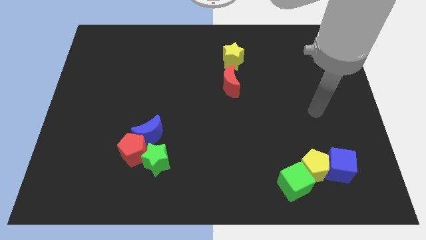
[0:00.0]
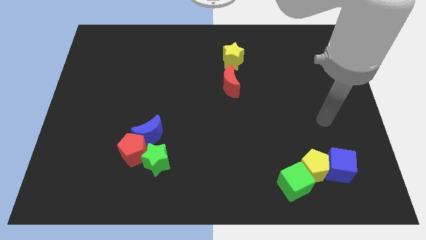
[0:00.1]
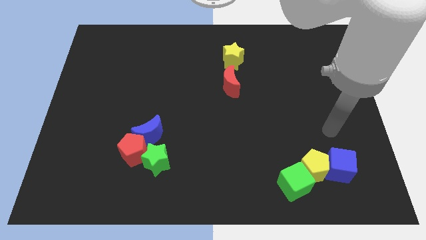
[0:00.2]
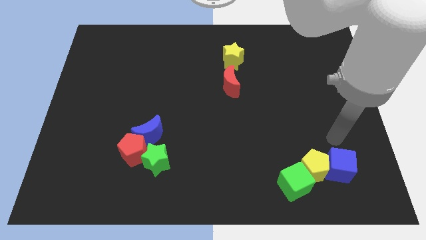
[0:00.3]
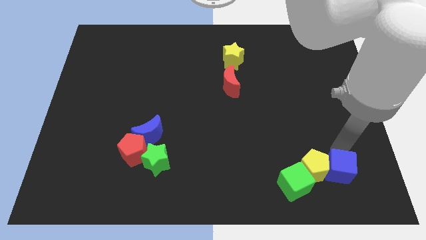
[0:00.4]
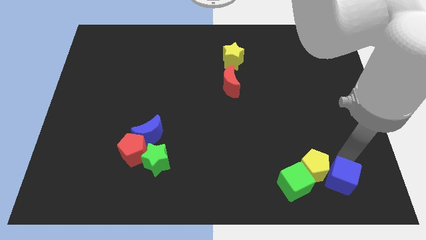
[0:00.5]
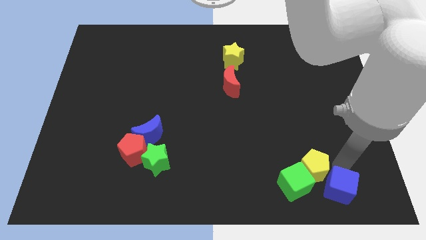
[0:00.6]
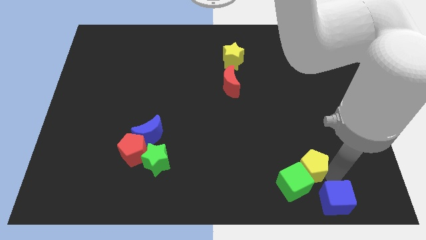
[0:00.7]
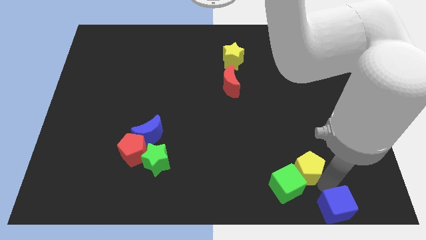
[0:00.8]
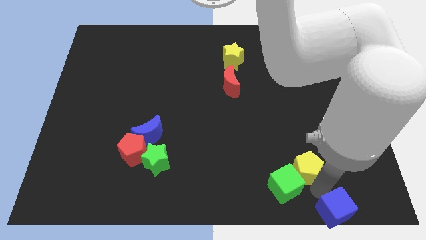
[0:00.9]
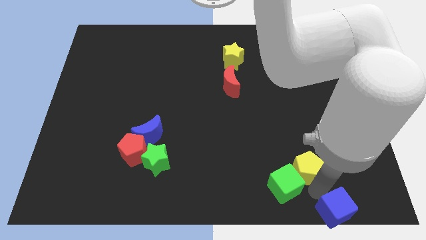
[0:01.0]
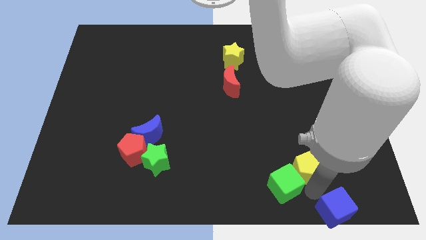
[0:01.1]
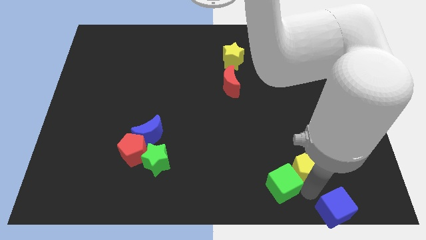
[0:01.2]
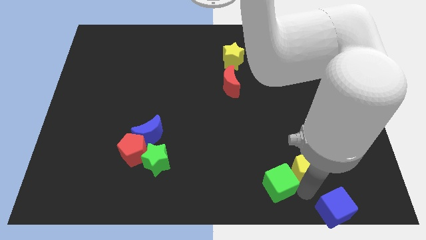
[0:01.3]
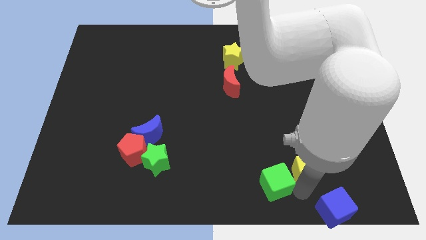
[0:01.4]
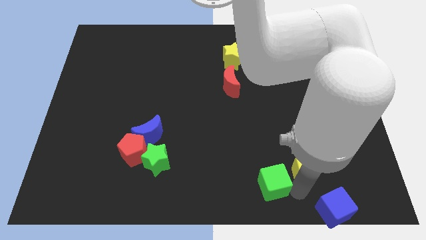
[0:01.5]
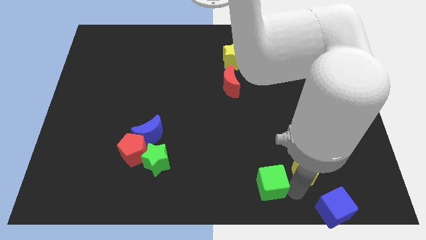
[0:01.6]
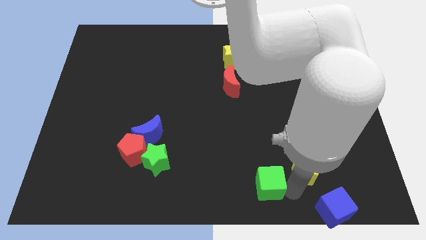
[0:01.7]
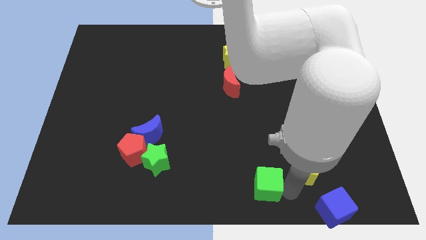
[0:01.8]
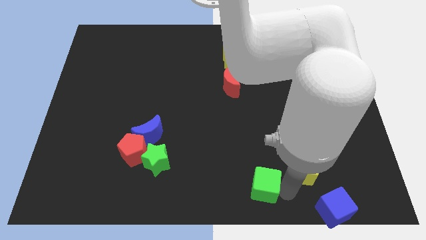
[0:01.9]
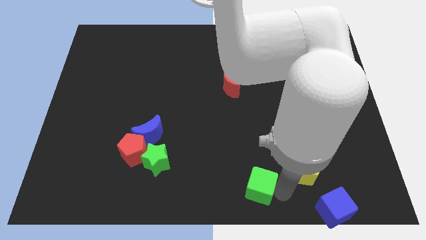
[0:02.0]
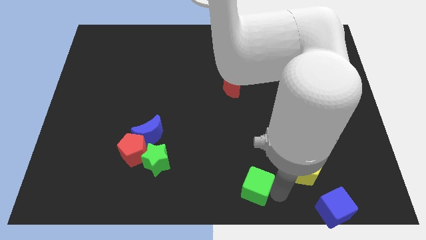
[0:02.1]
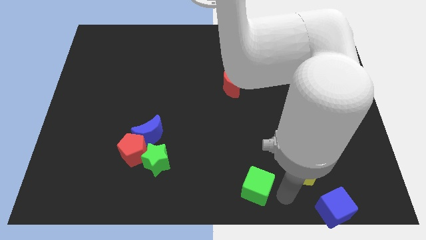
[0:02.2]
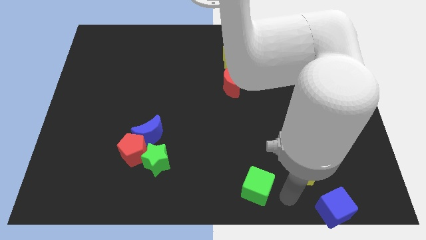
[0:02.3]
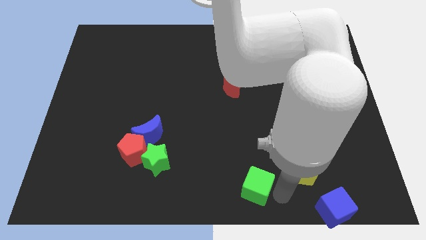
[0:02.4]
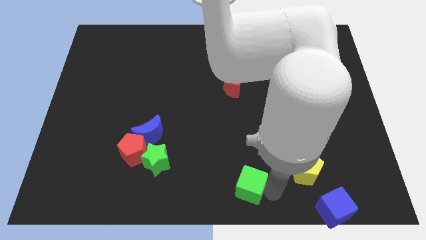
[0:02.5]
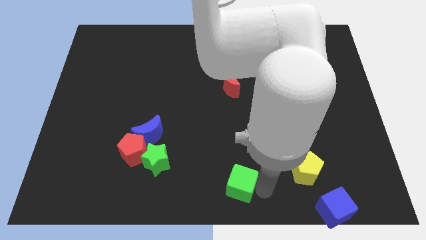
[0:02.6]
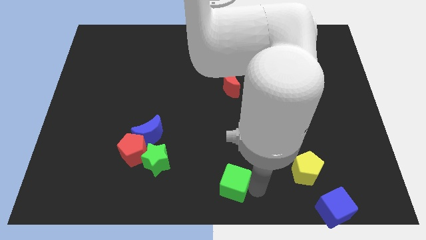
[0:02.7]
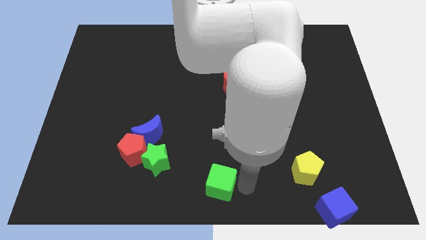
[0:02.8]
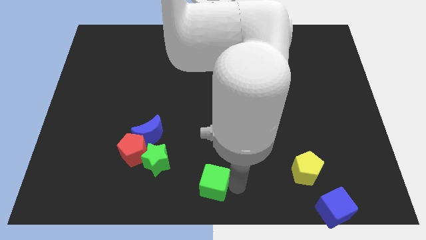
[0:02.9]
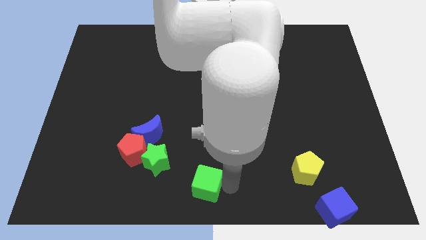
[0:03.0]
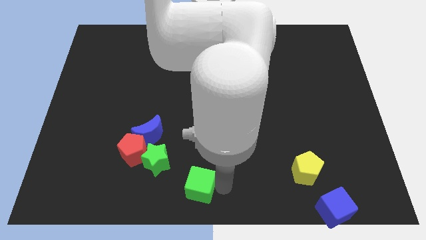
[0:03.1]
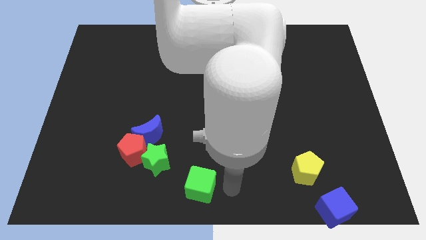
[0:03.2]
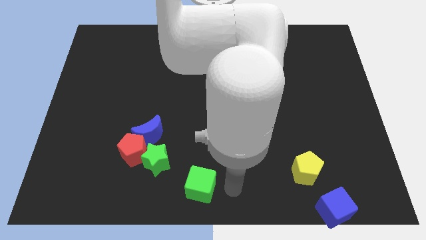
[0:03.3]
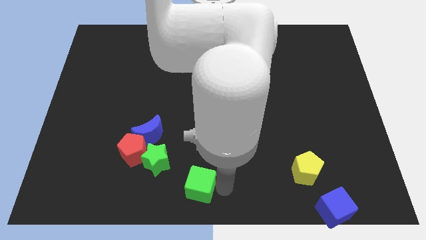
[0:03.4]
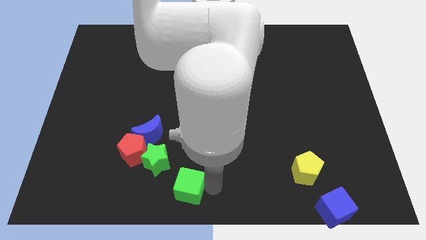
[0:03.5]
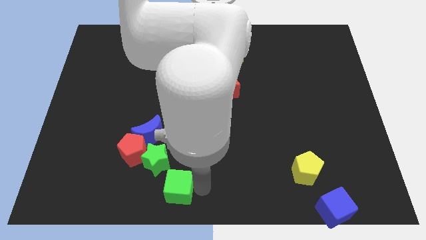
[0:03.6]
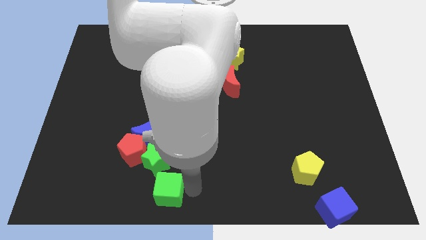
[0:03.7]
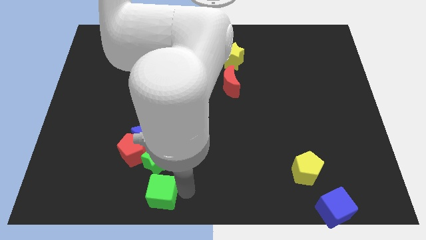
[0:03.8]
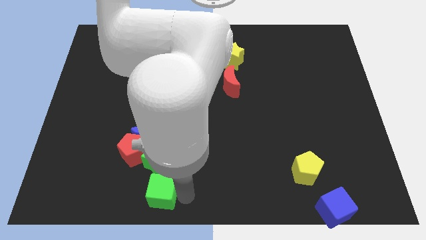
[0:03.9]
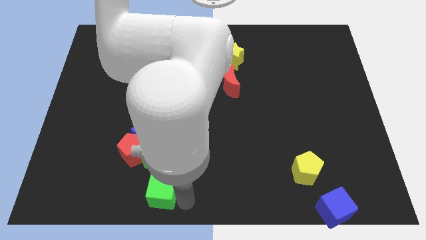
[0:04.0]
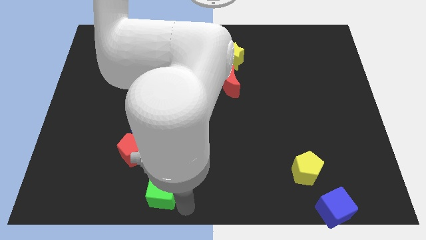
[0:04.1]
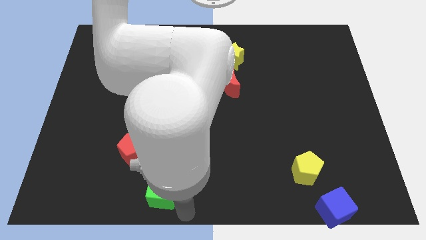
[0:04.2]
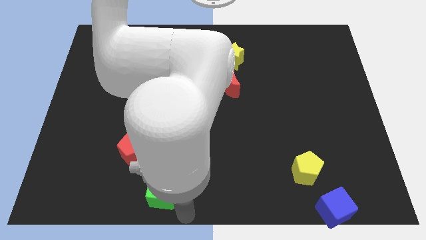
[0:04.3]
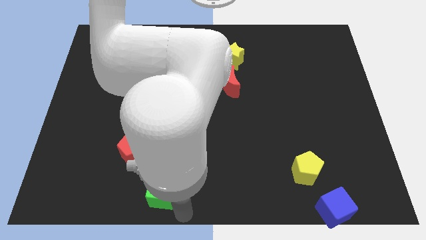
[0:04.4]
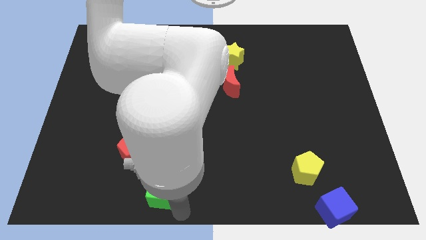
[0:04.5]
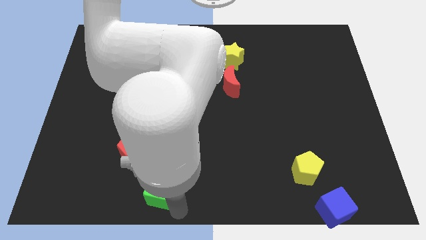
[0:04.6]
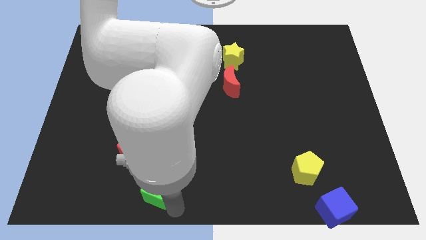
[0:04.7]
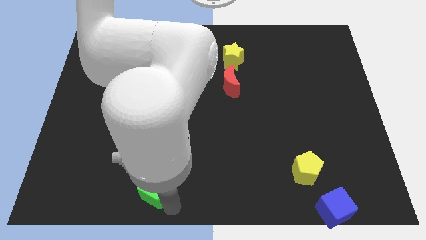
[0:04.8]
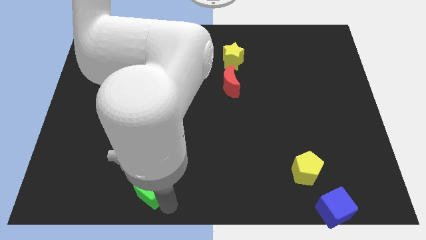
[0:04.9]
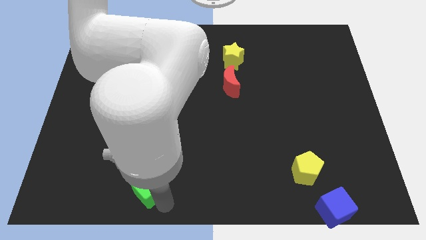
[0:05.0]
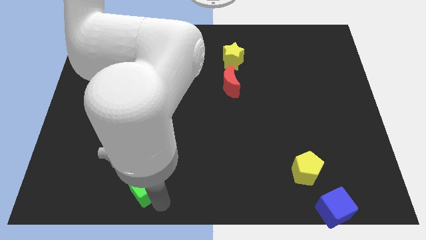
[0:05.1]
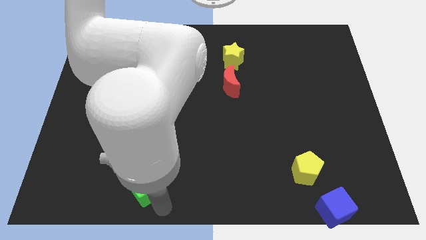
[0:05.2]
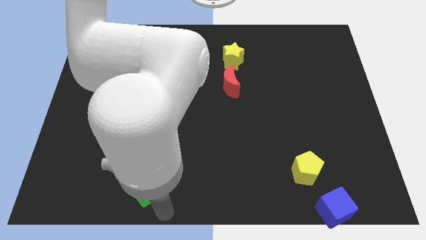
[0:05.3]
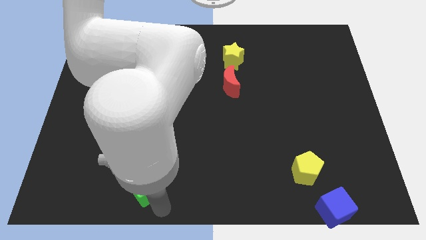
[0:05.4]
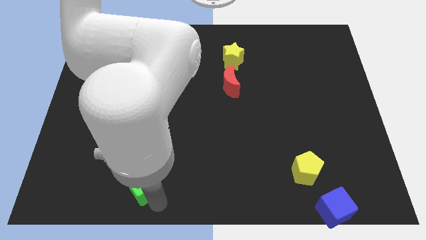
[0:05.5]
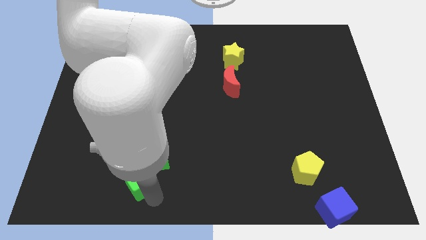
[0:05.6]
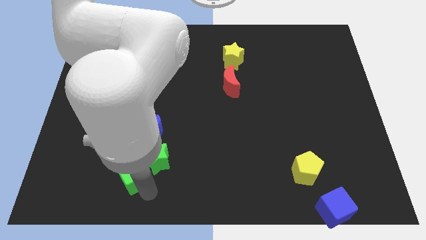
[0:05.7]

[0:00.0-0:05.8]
move the green cube close to the red pentagon

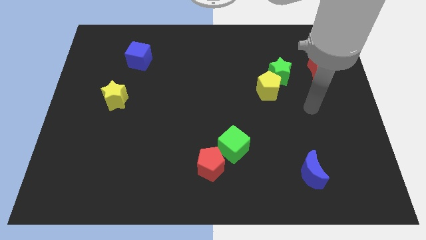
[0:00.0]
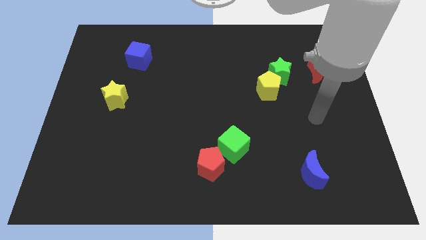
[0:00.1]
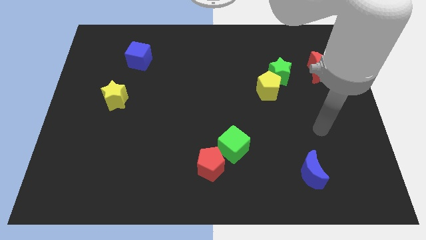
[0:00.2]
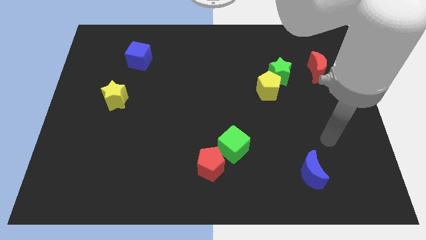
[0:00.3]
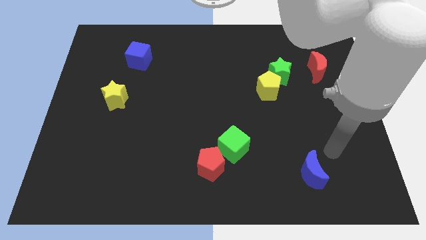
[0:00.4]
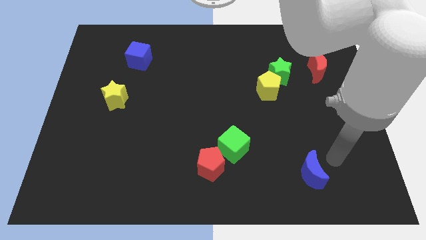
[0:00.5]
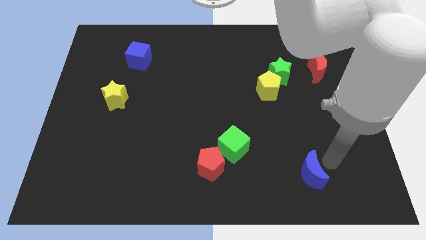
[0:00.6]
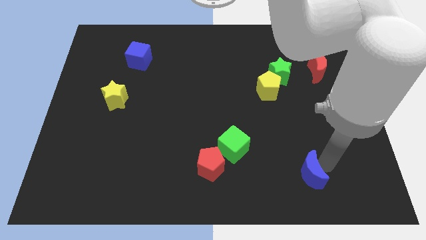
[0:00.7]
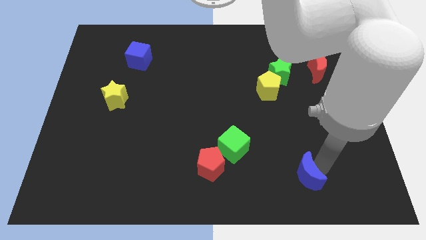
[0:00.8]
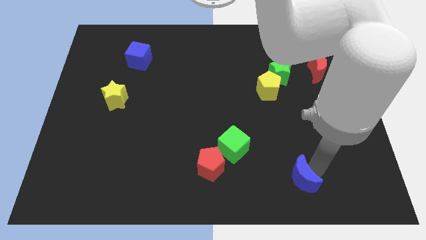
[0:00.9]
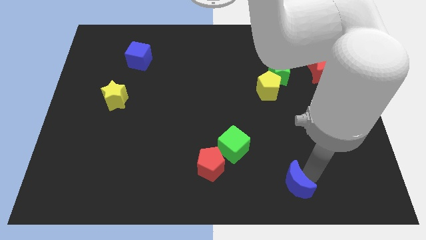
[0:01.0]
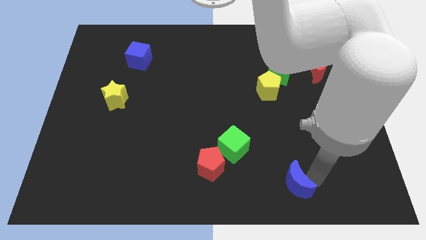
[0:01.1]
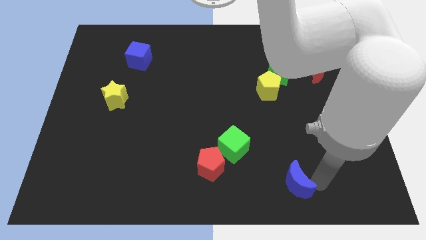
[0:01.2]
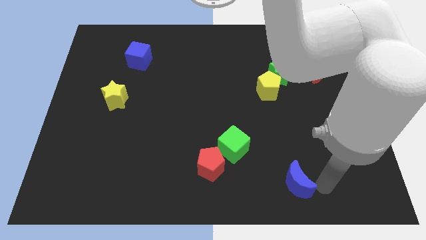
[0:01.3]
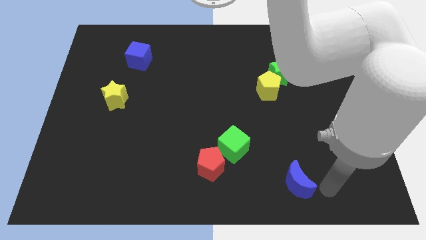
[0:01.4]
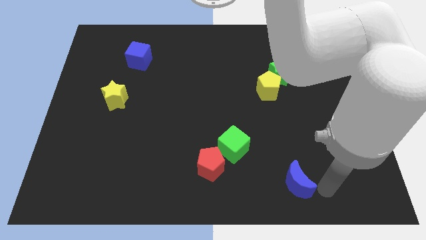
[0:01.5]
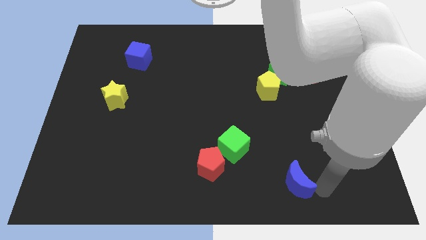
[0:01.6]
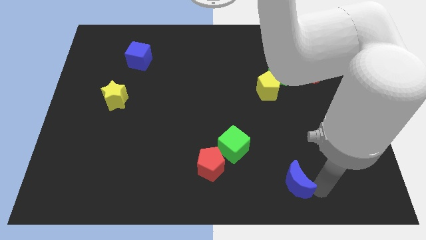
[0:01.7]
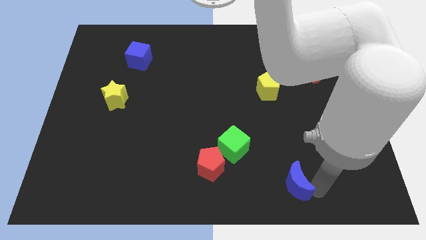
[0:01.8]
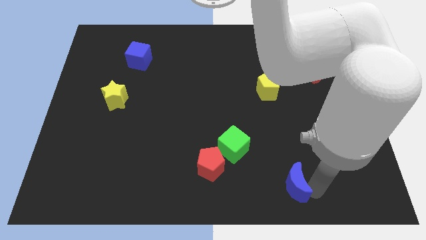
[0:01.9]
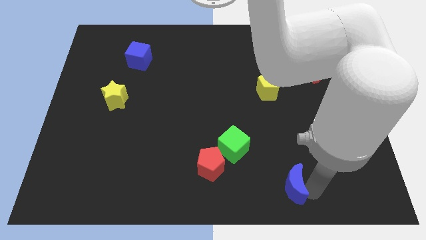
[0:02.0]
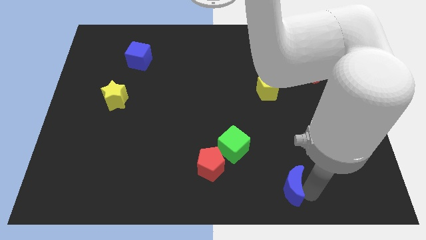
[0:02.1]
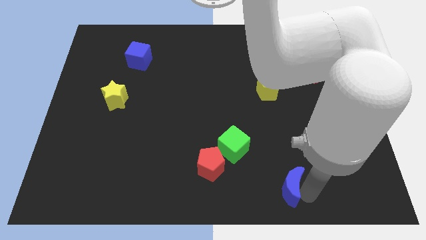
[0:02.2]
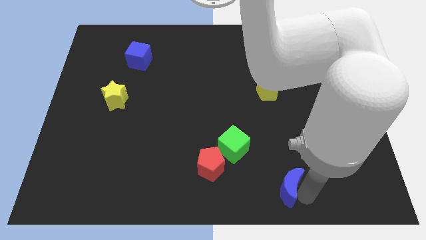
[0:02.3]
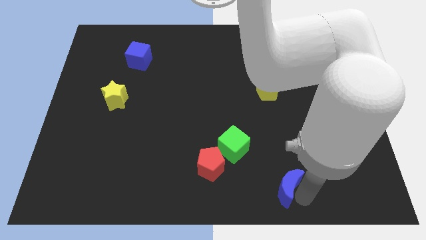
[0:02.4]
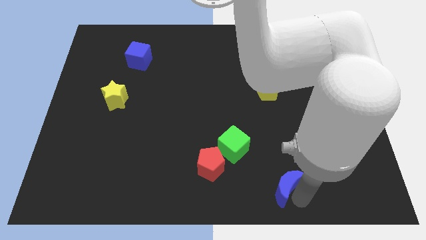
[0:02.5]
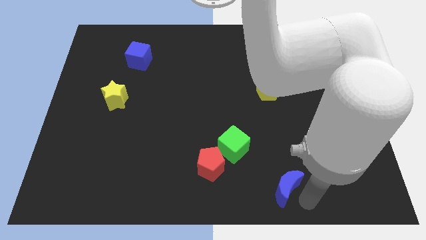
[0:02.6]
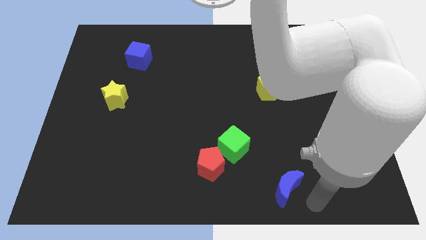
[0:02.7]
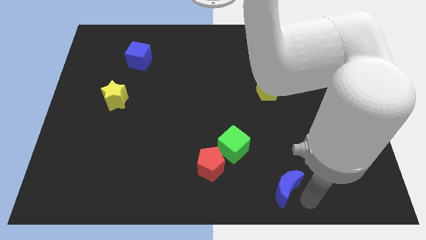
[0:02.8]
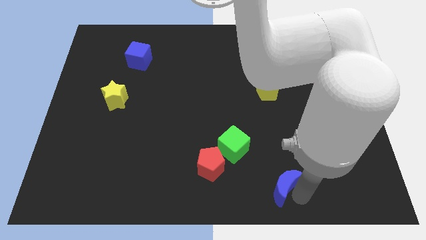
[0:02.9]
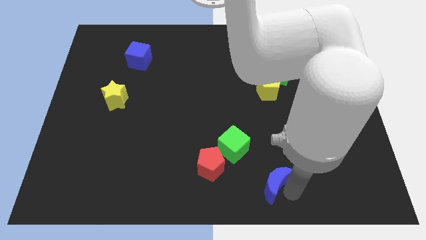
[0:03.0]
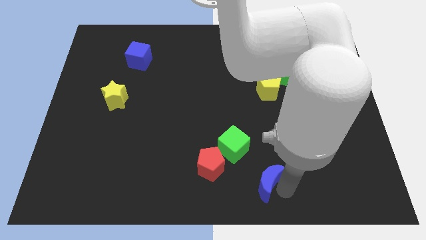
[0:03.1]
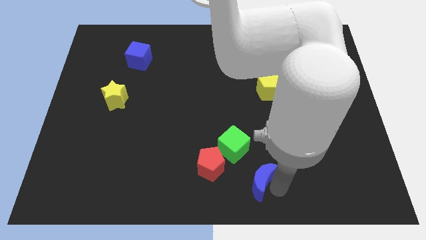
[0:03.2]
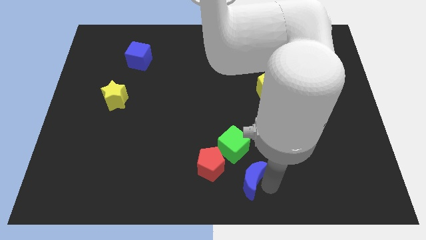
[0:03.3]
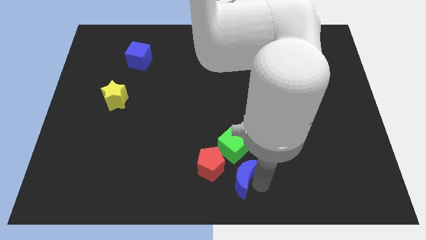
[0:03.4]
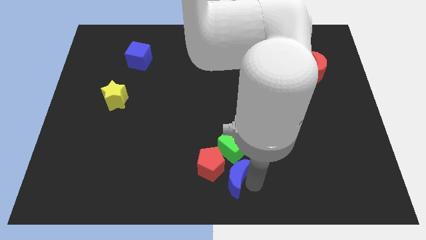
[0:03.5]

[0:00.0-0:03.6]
move the blue moon to the red pentagon
